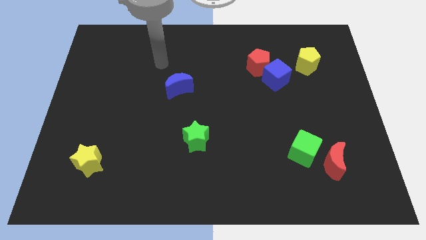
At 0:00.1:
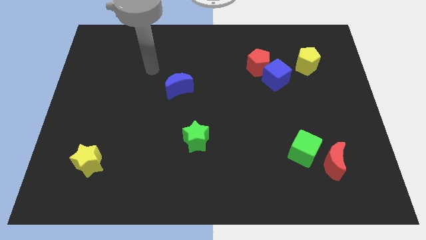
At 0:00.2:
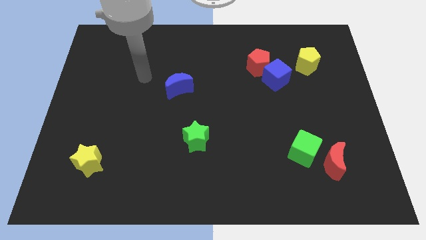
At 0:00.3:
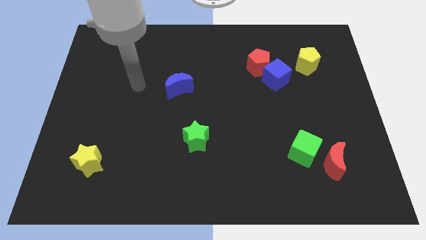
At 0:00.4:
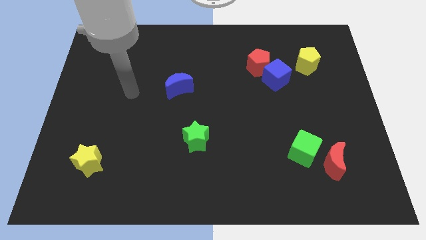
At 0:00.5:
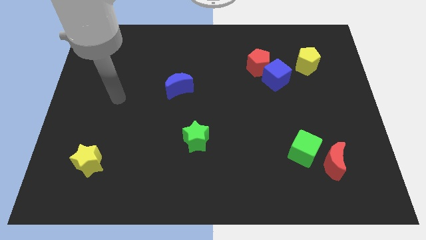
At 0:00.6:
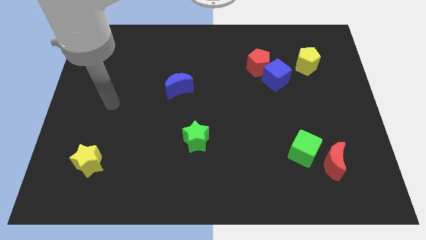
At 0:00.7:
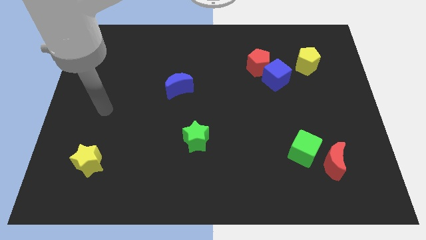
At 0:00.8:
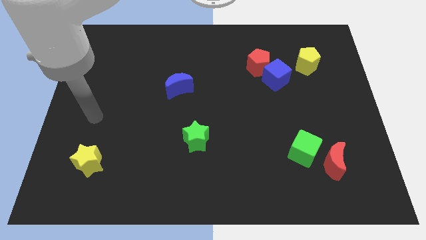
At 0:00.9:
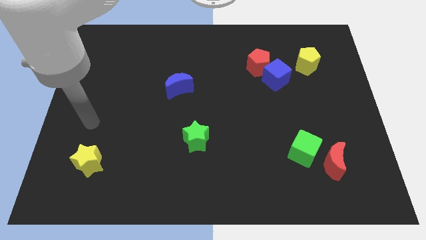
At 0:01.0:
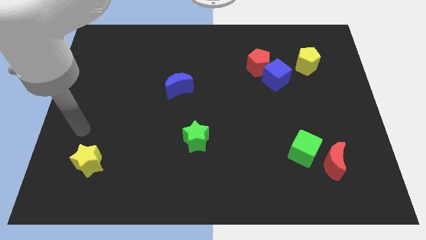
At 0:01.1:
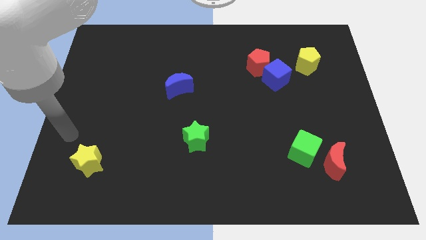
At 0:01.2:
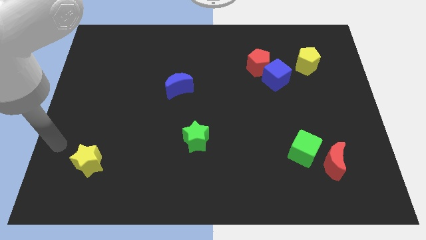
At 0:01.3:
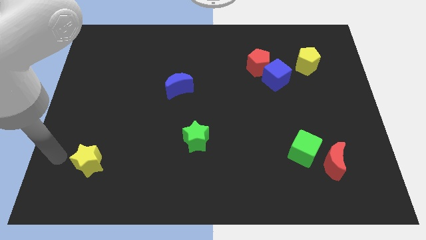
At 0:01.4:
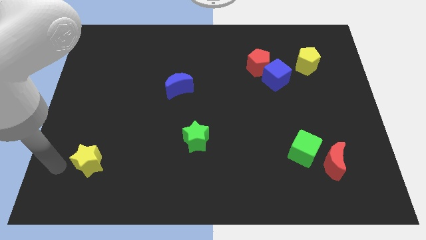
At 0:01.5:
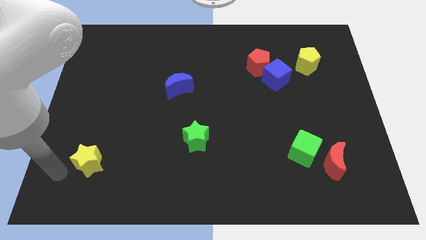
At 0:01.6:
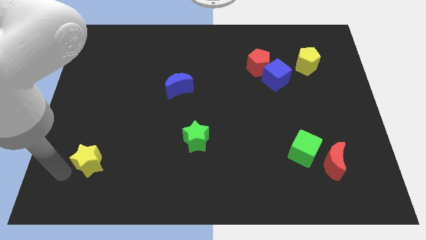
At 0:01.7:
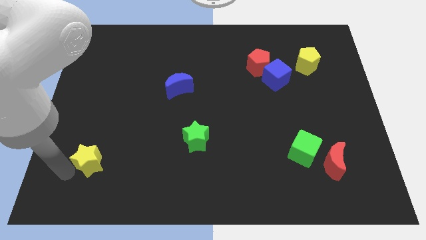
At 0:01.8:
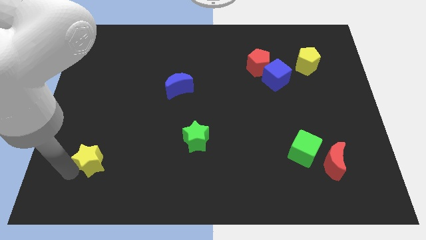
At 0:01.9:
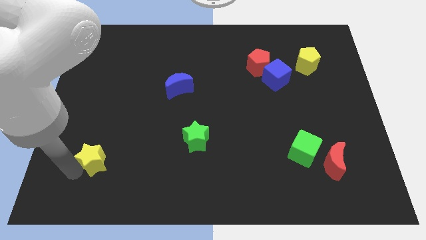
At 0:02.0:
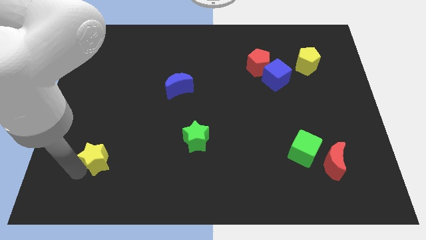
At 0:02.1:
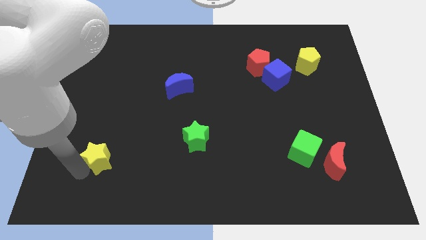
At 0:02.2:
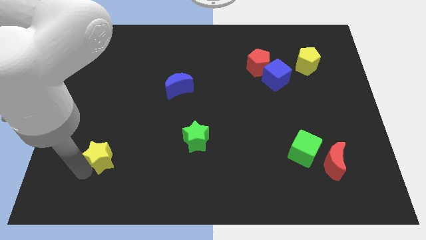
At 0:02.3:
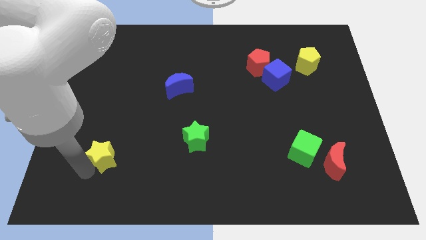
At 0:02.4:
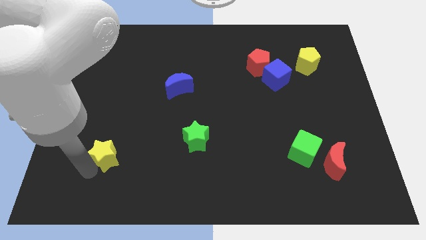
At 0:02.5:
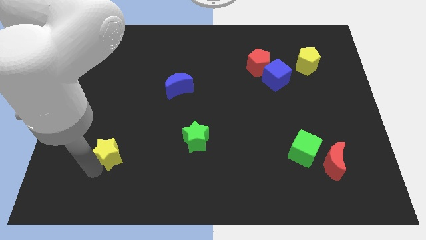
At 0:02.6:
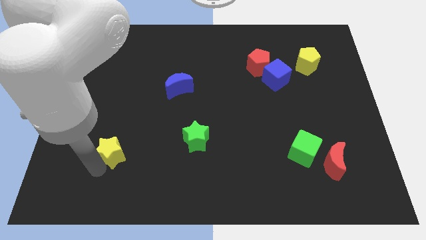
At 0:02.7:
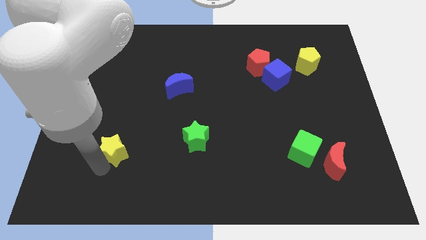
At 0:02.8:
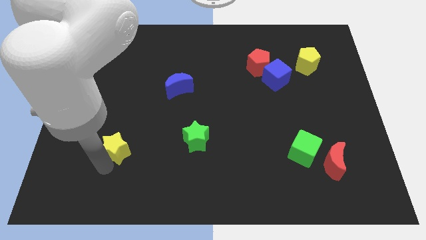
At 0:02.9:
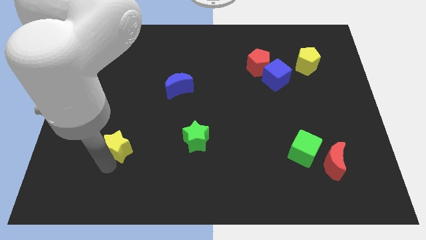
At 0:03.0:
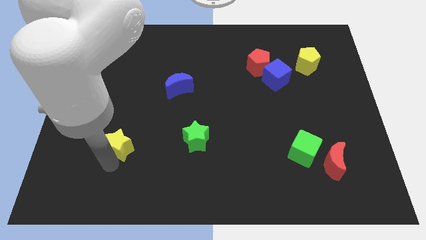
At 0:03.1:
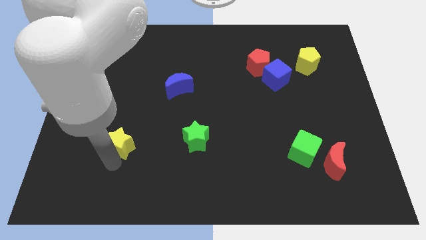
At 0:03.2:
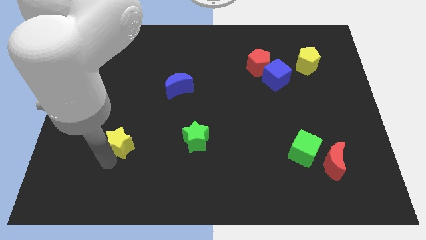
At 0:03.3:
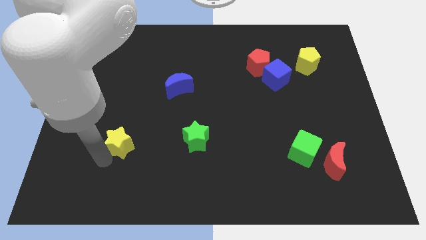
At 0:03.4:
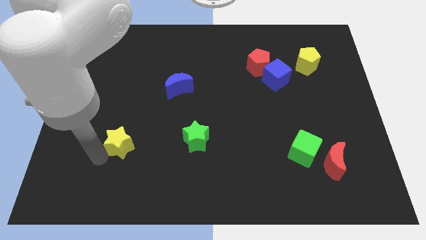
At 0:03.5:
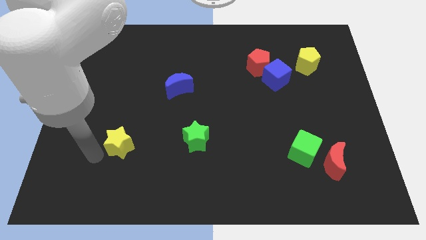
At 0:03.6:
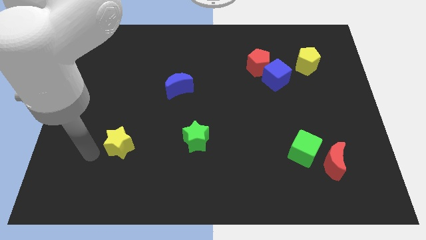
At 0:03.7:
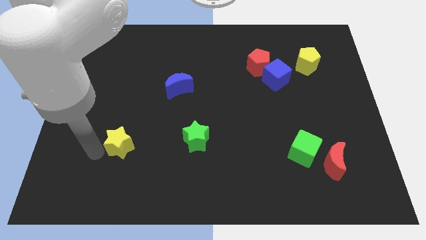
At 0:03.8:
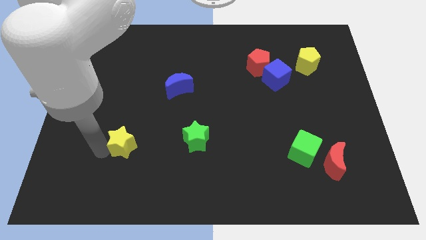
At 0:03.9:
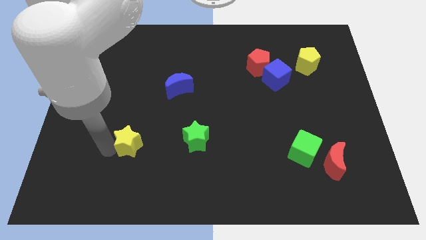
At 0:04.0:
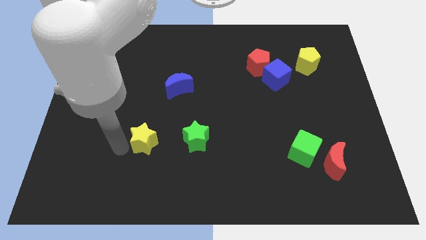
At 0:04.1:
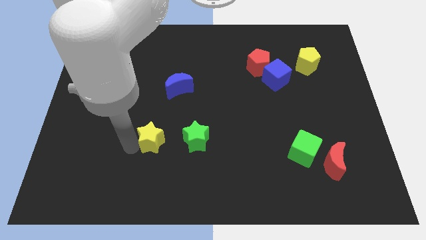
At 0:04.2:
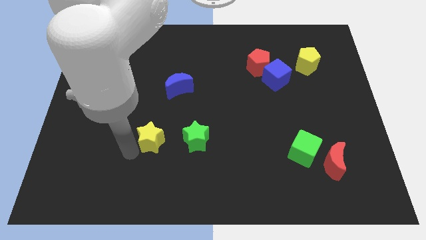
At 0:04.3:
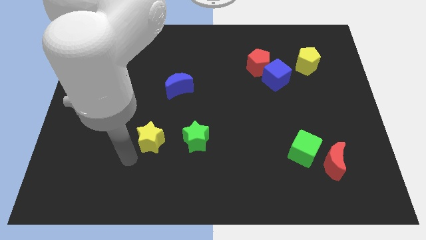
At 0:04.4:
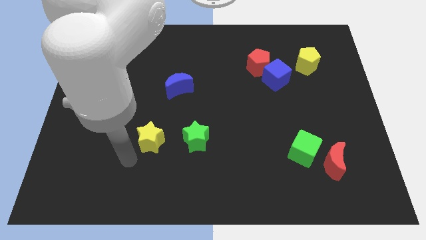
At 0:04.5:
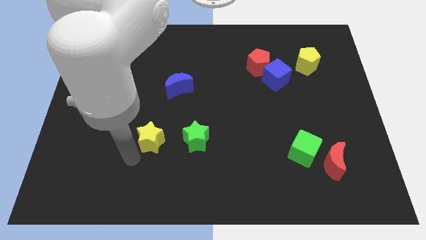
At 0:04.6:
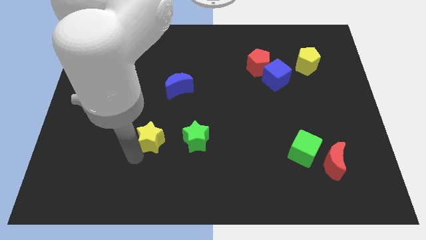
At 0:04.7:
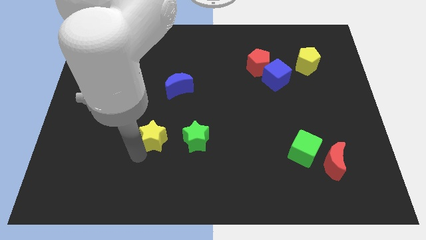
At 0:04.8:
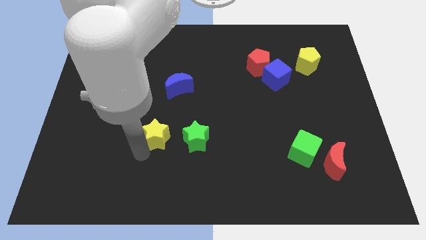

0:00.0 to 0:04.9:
slide the yellow star to the bottom of the blue moon

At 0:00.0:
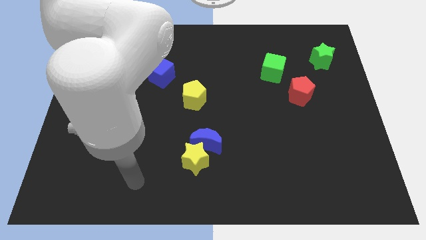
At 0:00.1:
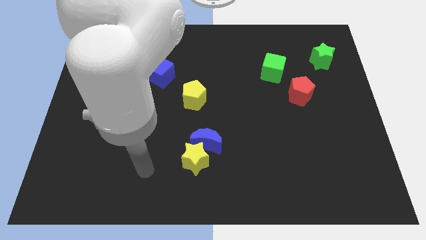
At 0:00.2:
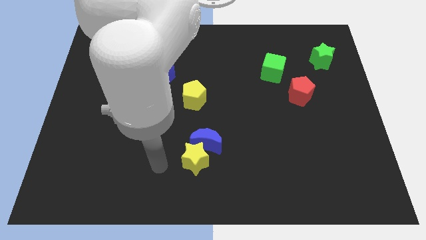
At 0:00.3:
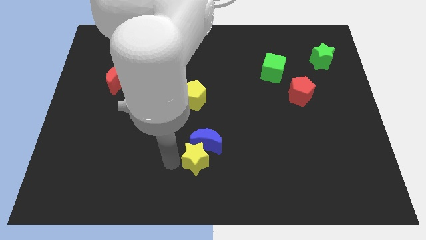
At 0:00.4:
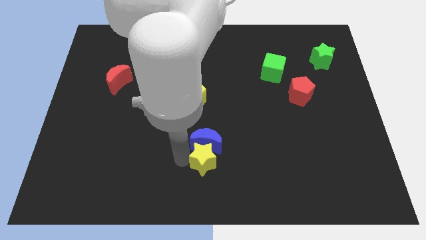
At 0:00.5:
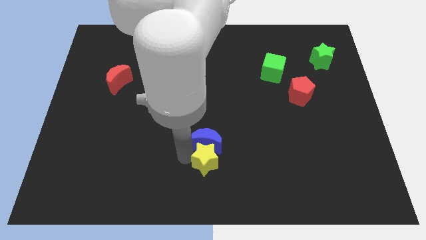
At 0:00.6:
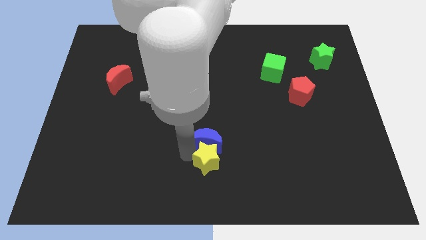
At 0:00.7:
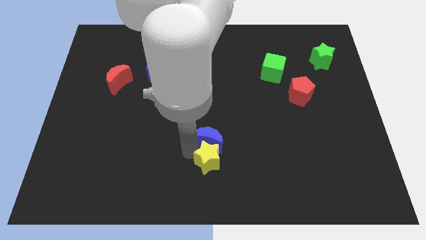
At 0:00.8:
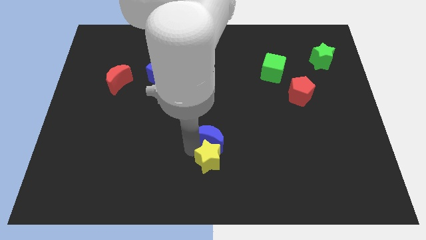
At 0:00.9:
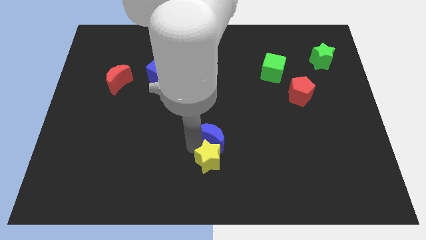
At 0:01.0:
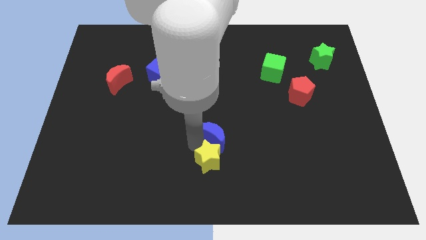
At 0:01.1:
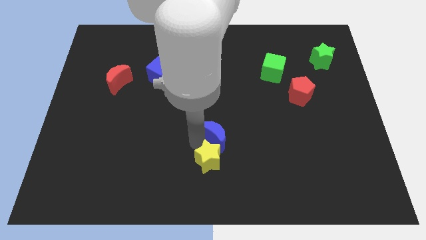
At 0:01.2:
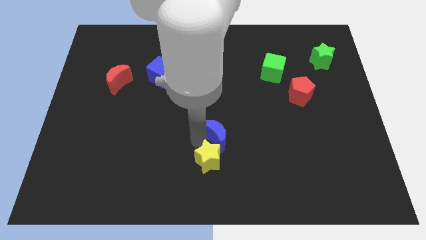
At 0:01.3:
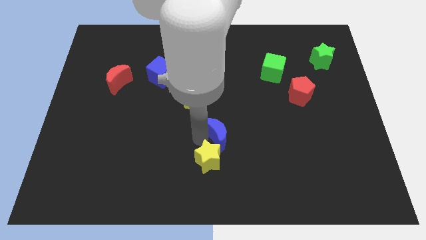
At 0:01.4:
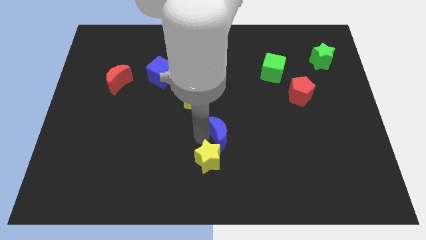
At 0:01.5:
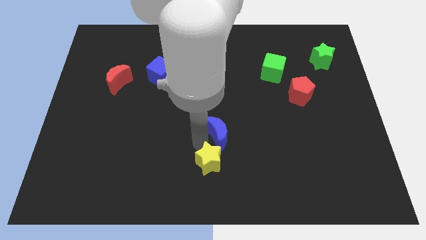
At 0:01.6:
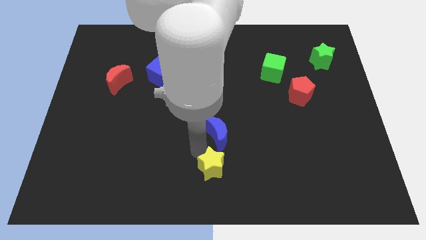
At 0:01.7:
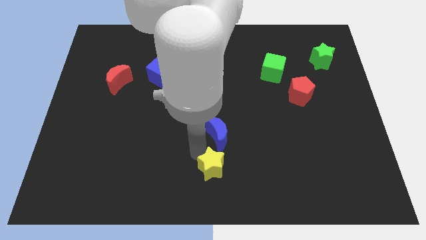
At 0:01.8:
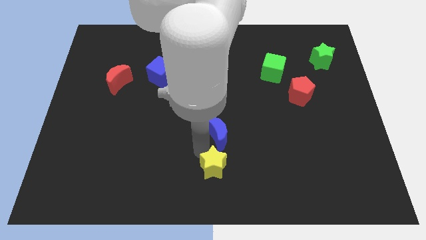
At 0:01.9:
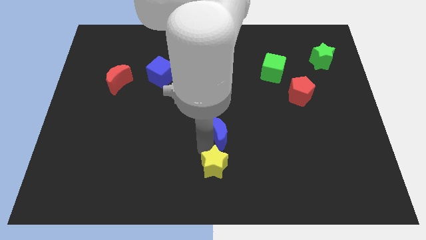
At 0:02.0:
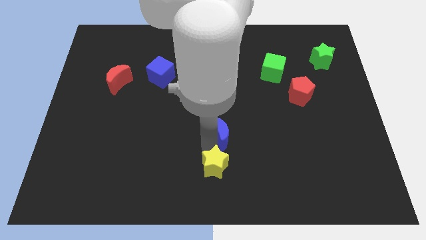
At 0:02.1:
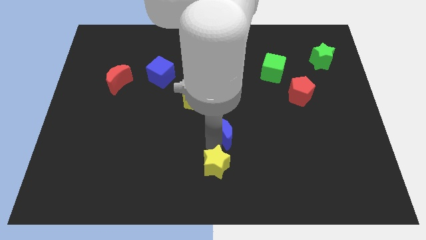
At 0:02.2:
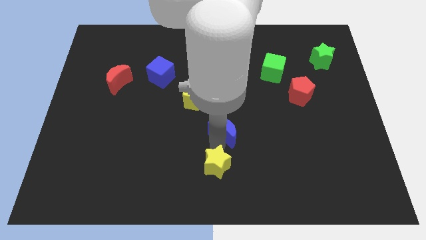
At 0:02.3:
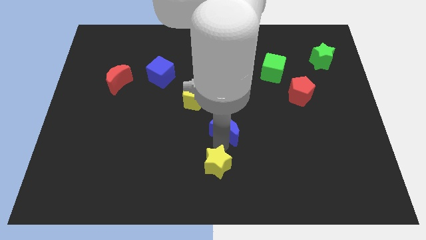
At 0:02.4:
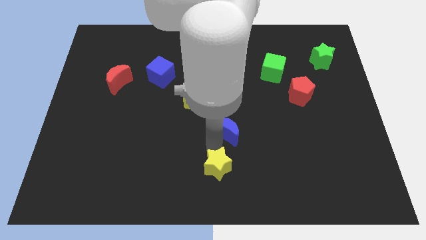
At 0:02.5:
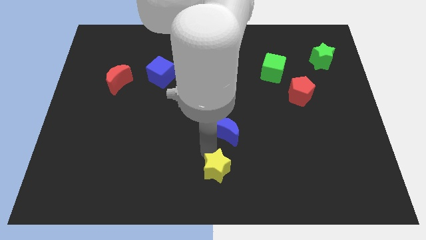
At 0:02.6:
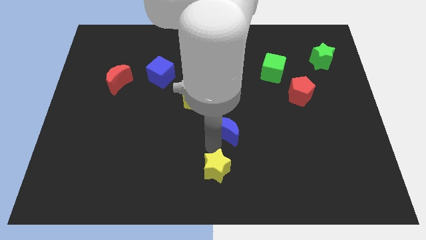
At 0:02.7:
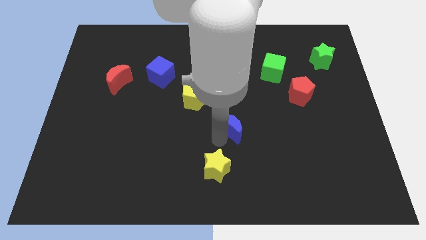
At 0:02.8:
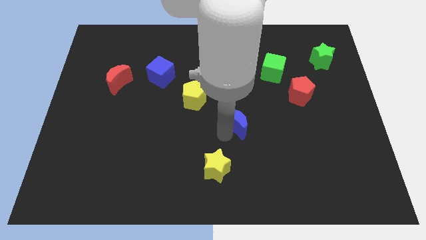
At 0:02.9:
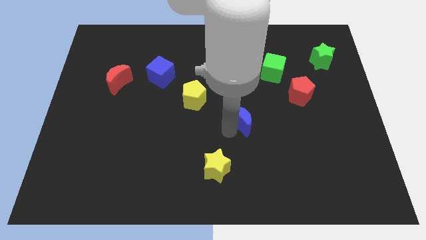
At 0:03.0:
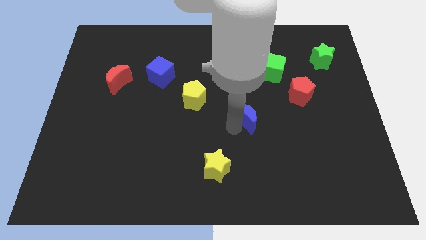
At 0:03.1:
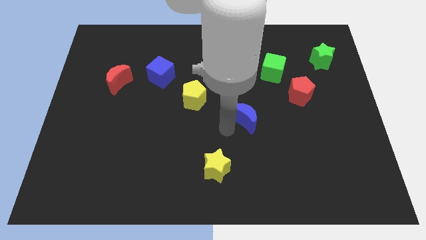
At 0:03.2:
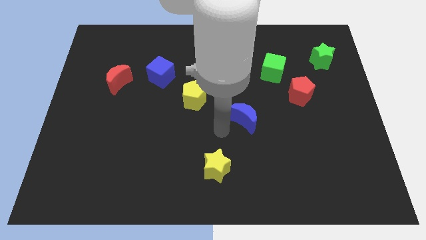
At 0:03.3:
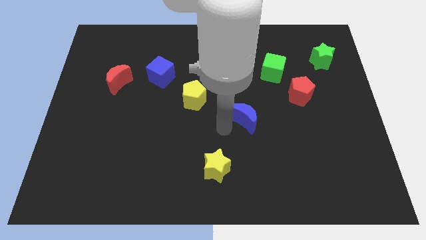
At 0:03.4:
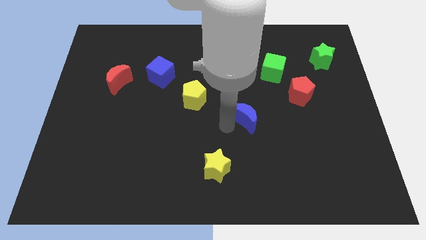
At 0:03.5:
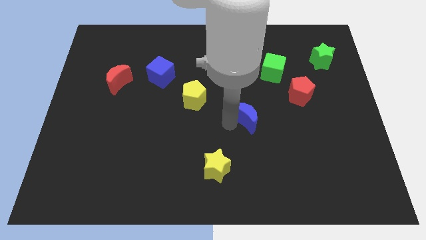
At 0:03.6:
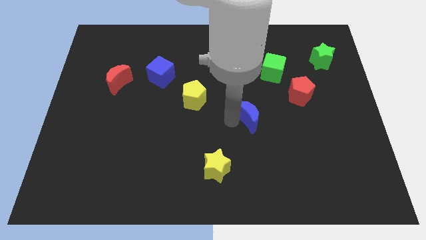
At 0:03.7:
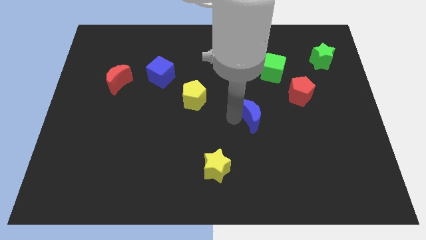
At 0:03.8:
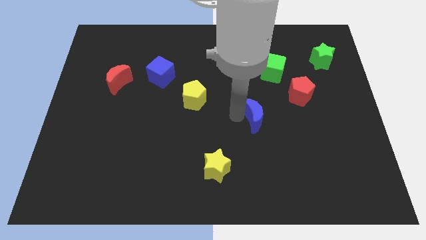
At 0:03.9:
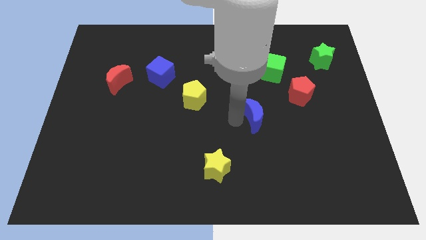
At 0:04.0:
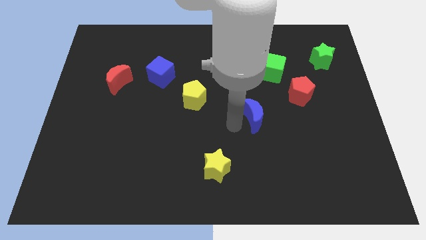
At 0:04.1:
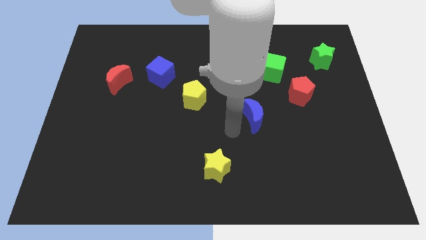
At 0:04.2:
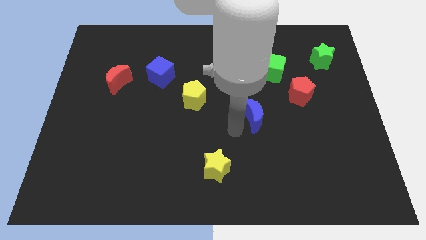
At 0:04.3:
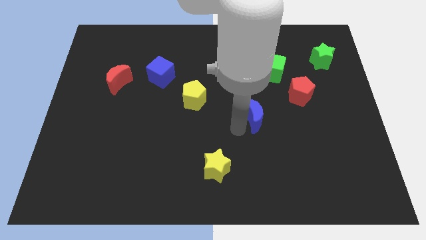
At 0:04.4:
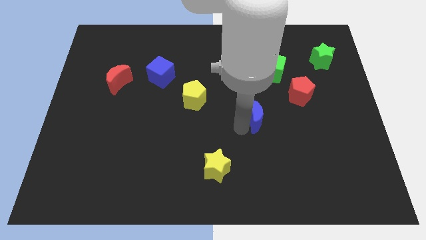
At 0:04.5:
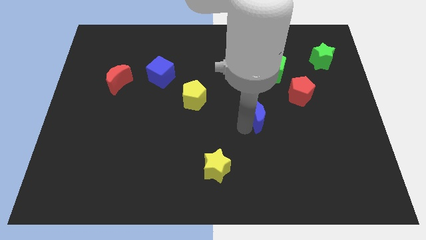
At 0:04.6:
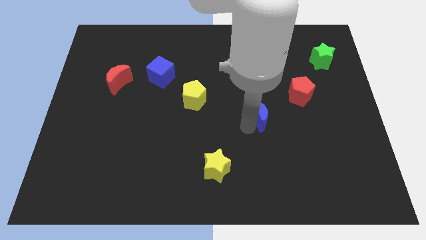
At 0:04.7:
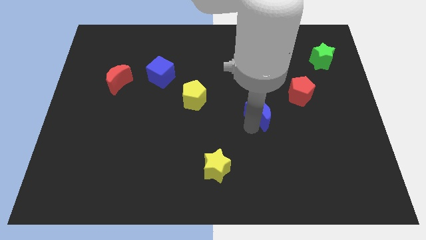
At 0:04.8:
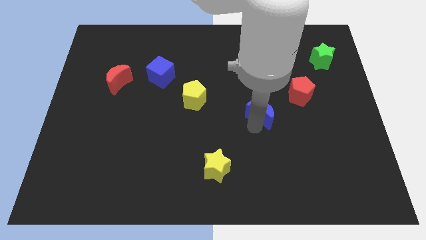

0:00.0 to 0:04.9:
put the blue moon to the bottom of the green cube
